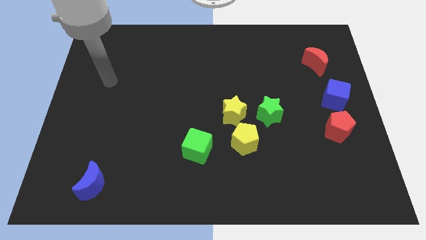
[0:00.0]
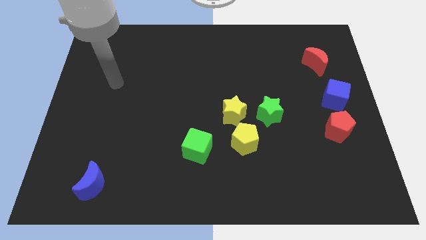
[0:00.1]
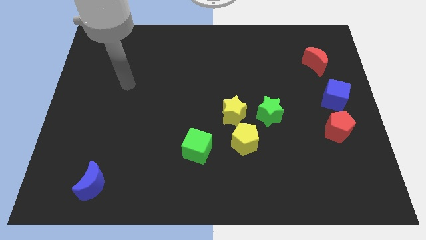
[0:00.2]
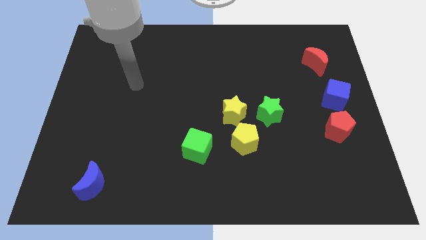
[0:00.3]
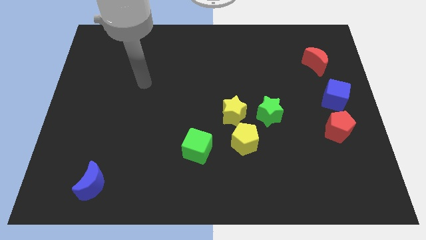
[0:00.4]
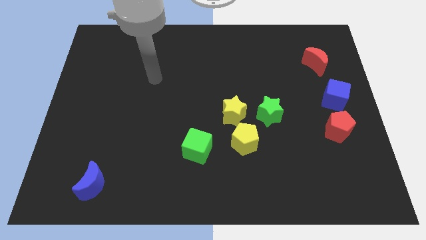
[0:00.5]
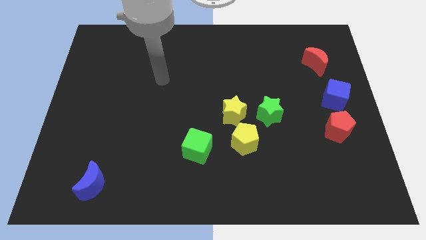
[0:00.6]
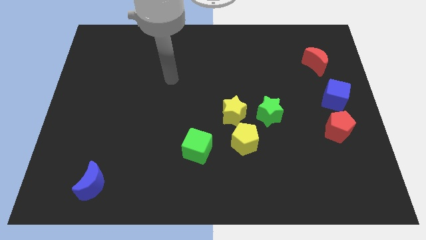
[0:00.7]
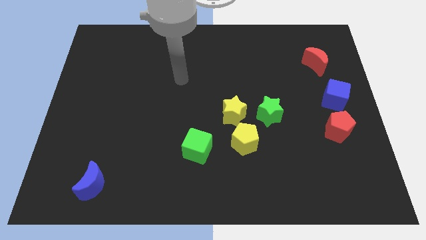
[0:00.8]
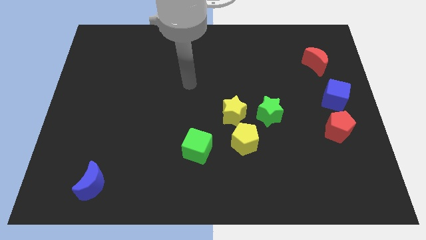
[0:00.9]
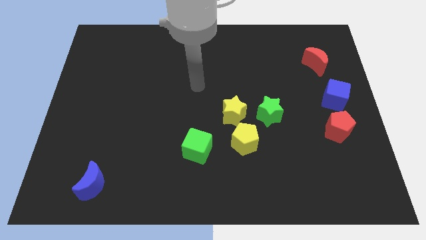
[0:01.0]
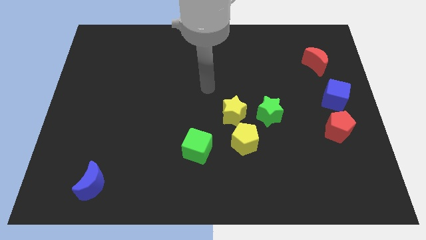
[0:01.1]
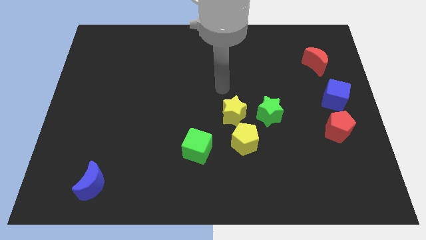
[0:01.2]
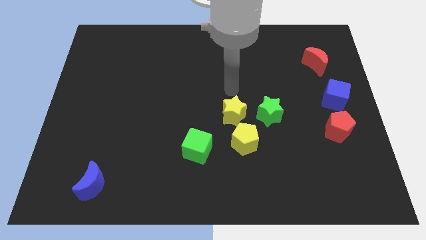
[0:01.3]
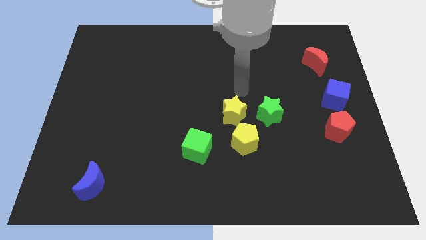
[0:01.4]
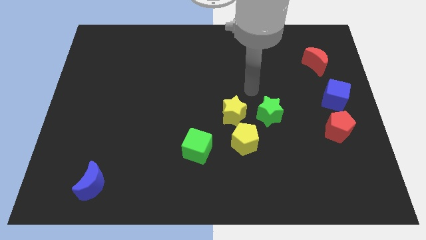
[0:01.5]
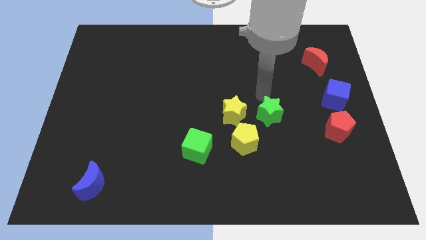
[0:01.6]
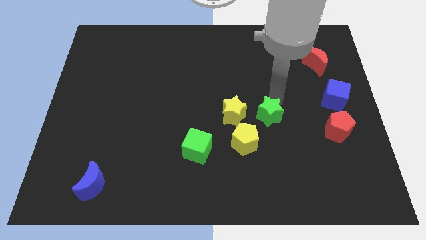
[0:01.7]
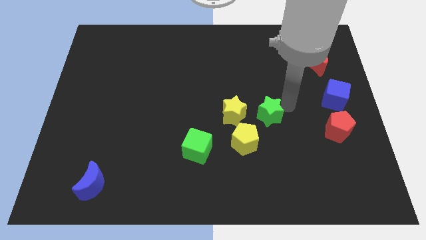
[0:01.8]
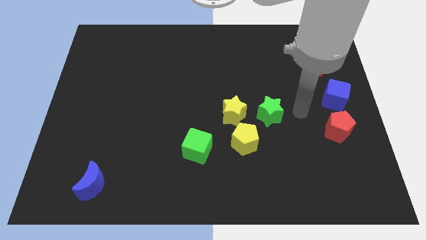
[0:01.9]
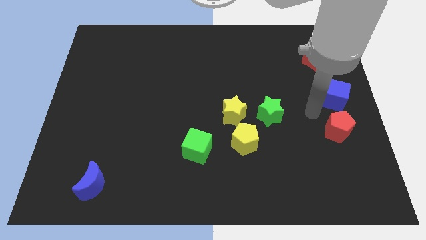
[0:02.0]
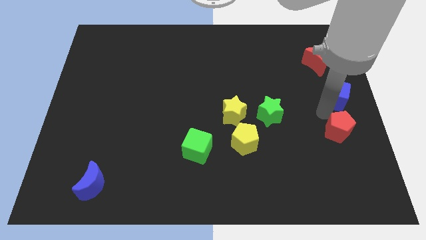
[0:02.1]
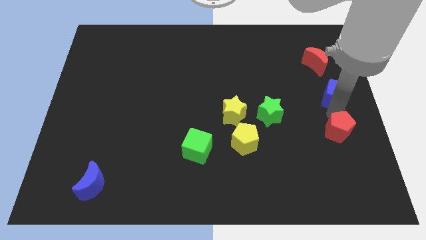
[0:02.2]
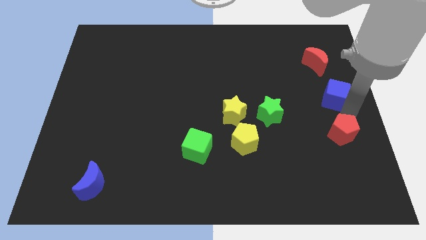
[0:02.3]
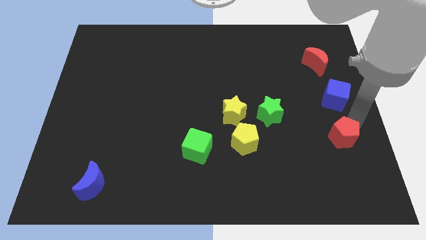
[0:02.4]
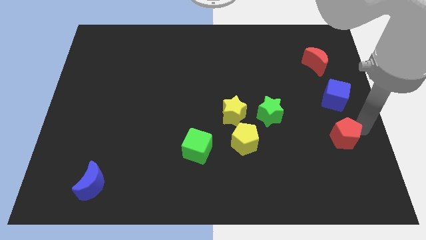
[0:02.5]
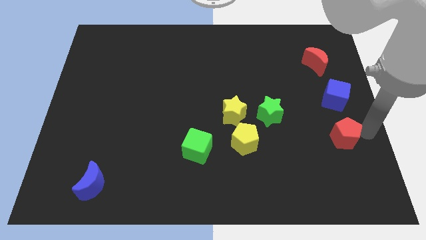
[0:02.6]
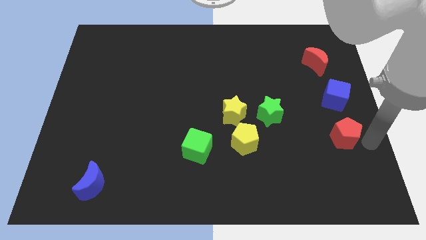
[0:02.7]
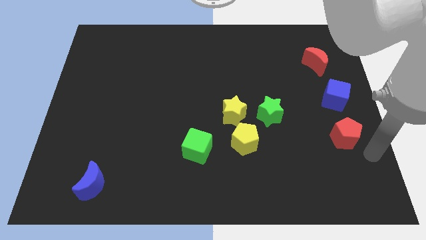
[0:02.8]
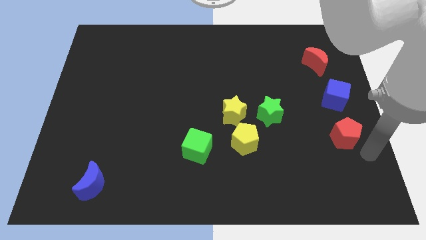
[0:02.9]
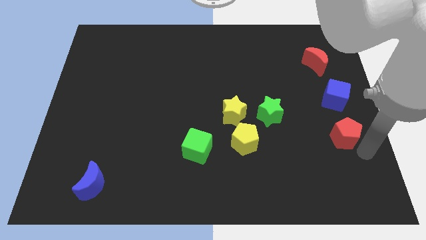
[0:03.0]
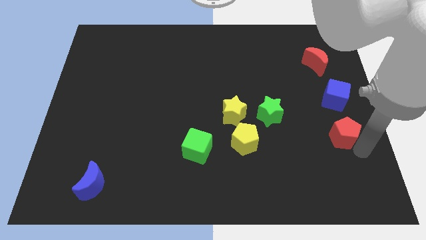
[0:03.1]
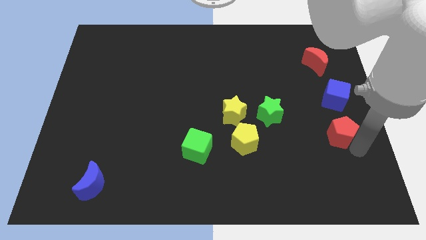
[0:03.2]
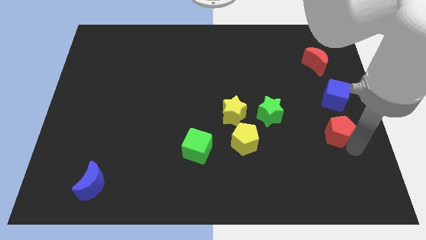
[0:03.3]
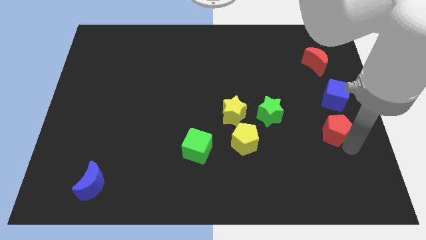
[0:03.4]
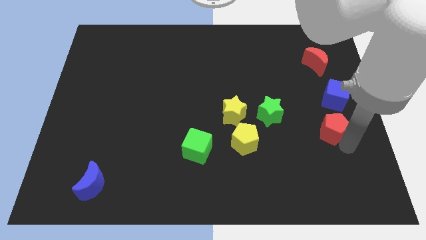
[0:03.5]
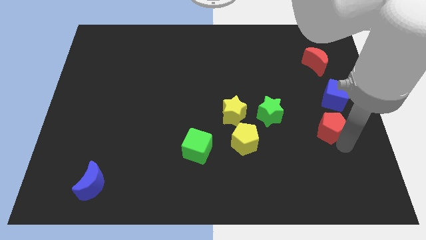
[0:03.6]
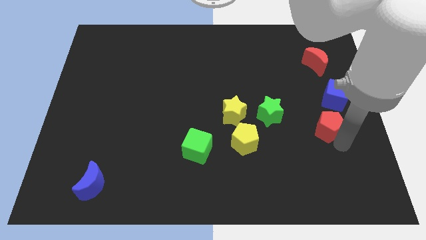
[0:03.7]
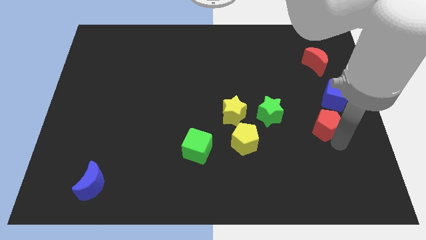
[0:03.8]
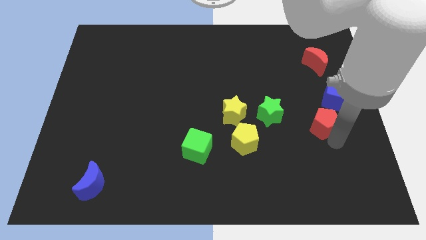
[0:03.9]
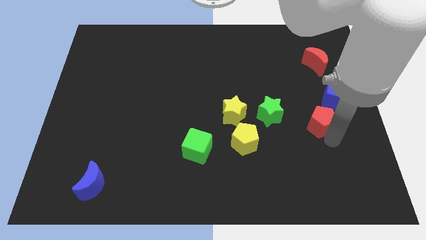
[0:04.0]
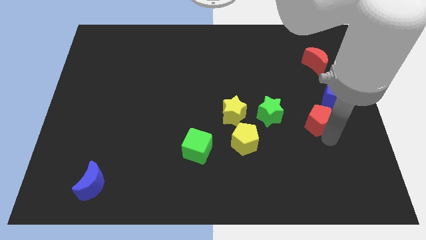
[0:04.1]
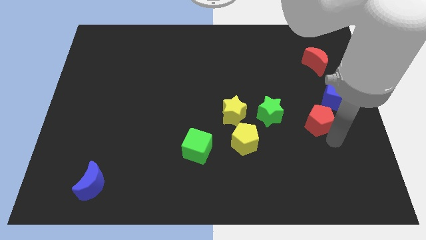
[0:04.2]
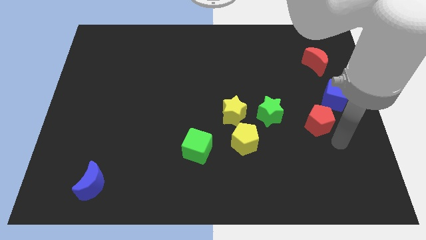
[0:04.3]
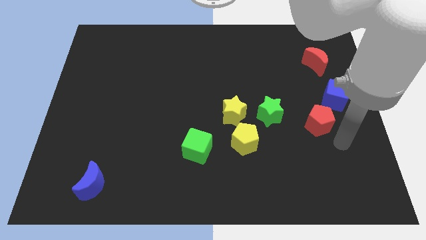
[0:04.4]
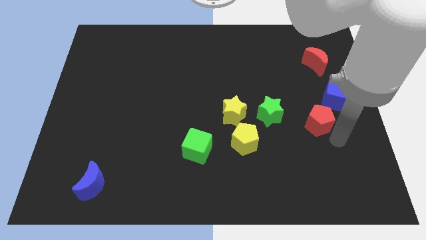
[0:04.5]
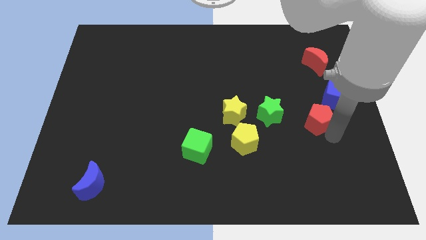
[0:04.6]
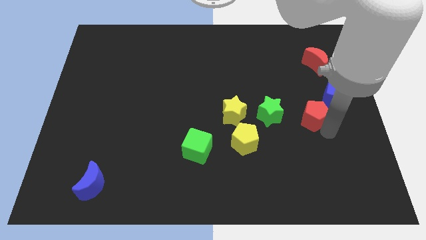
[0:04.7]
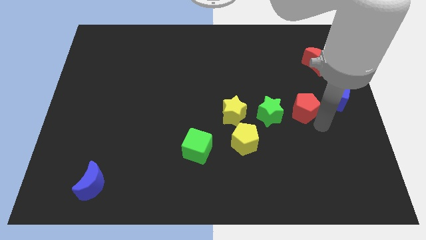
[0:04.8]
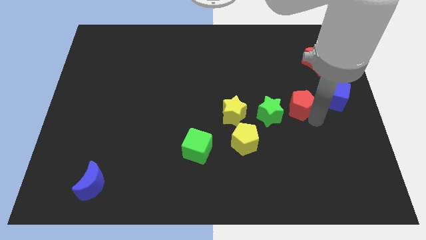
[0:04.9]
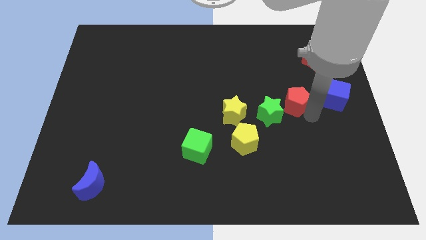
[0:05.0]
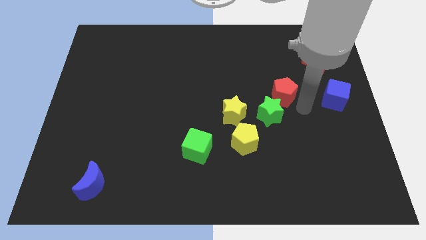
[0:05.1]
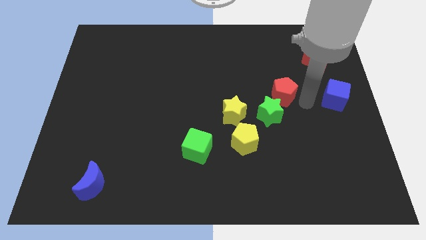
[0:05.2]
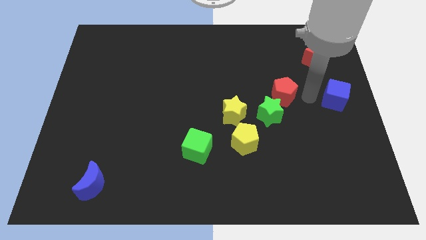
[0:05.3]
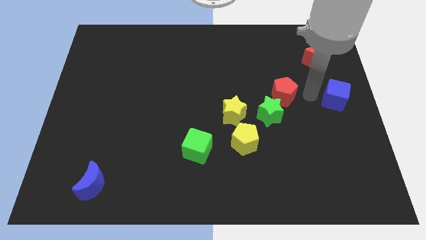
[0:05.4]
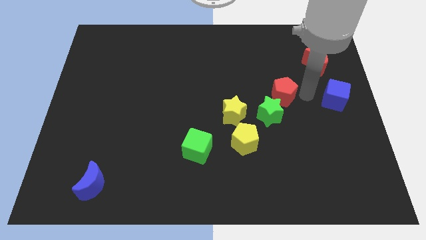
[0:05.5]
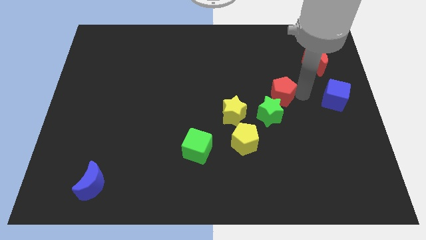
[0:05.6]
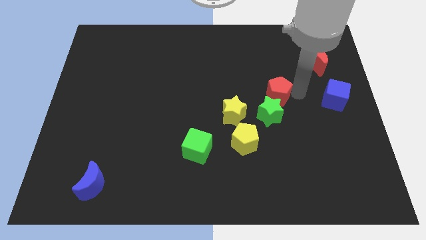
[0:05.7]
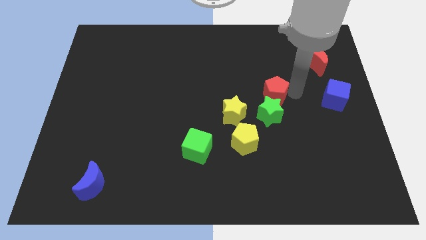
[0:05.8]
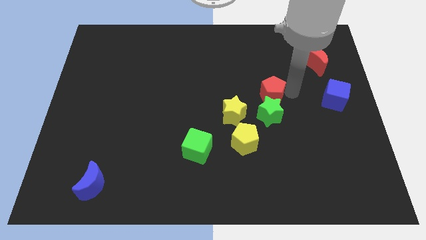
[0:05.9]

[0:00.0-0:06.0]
push the red pentagon to the top left of the green star

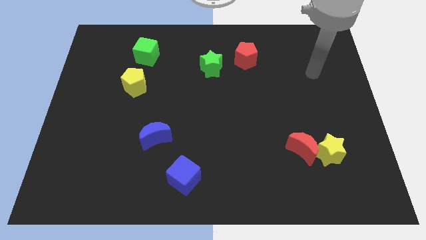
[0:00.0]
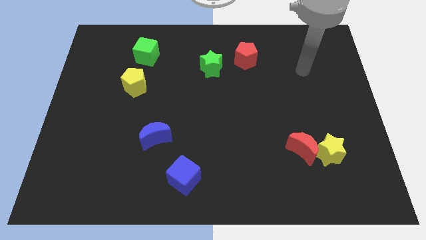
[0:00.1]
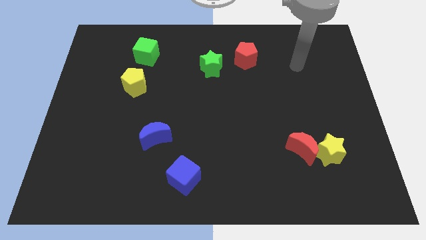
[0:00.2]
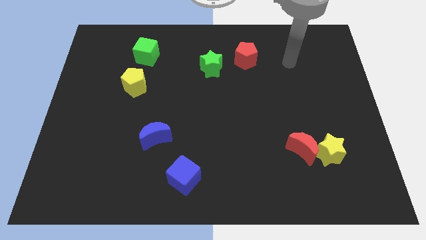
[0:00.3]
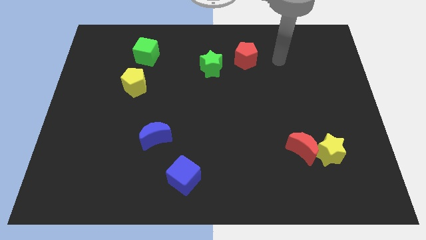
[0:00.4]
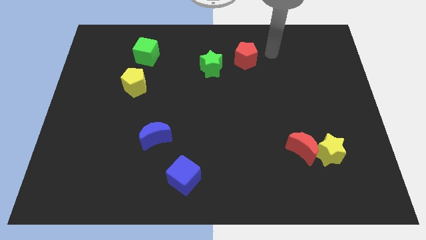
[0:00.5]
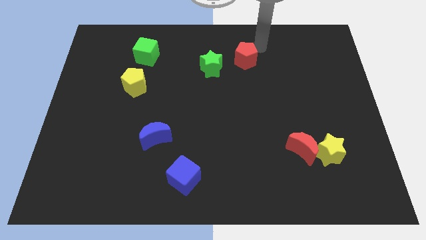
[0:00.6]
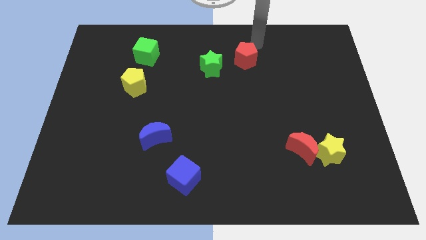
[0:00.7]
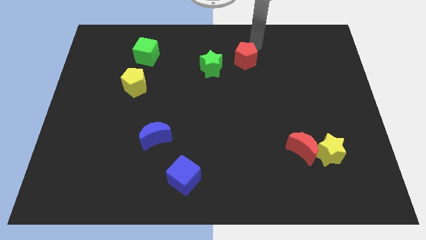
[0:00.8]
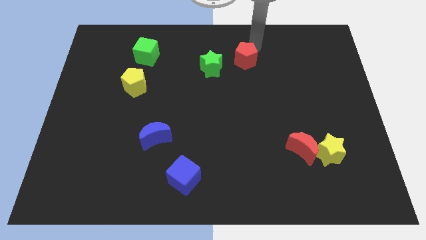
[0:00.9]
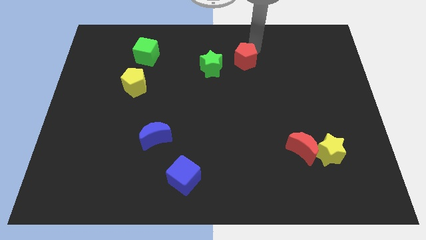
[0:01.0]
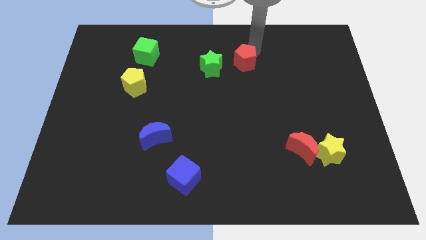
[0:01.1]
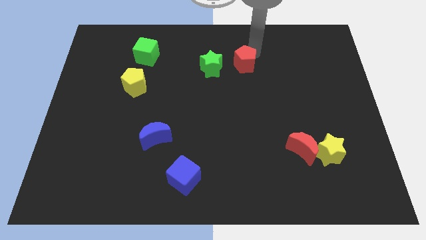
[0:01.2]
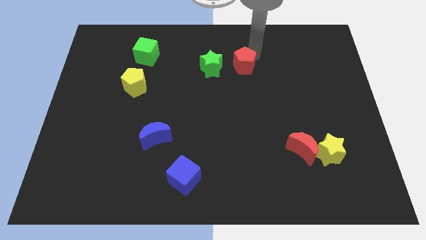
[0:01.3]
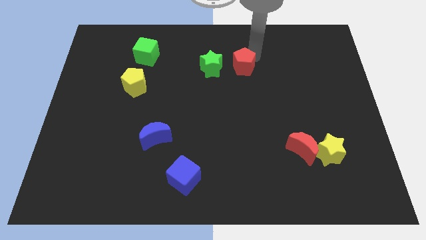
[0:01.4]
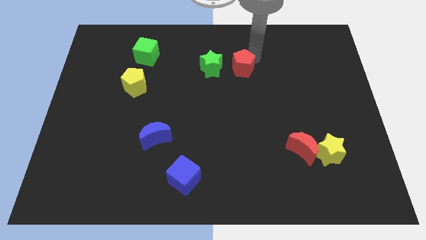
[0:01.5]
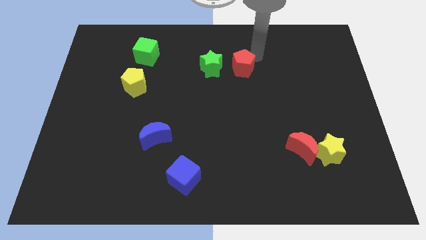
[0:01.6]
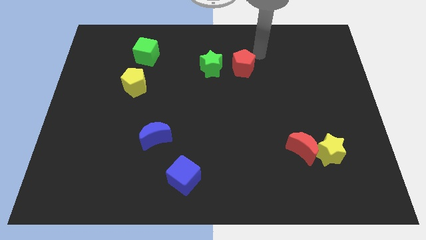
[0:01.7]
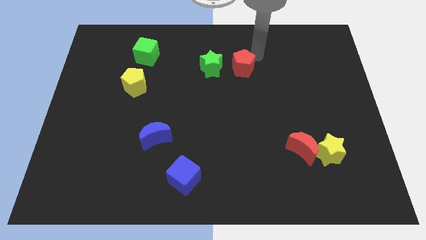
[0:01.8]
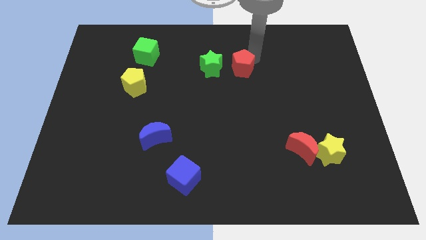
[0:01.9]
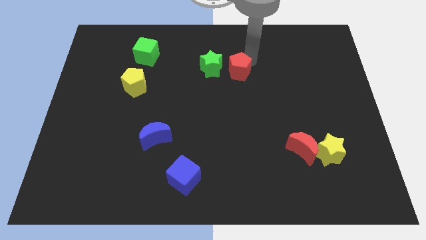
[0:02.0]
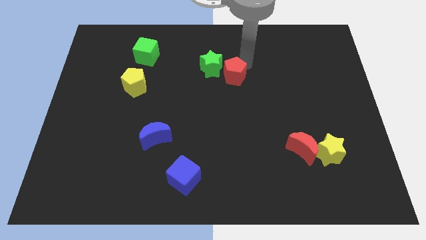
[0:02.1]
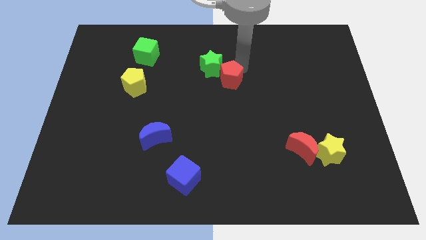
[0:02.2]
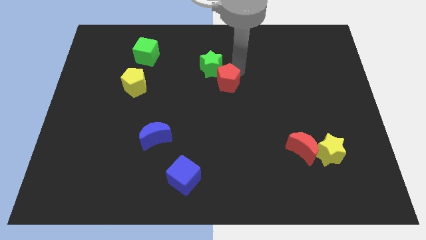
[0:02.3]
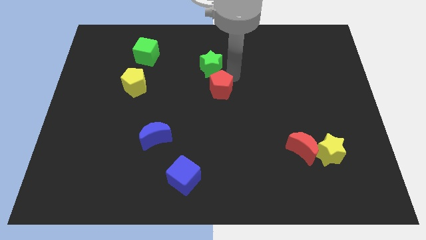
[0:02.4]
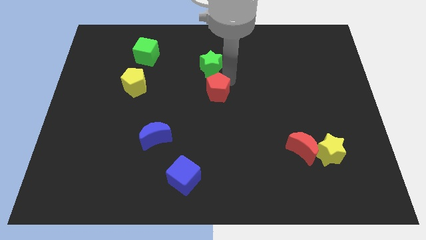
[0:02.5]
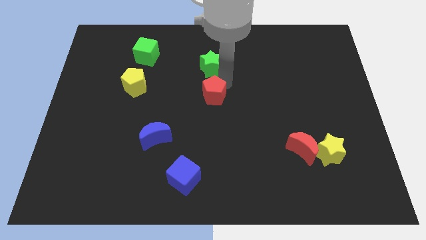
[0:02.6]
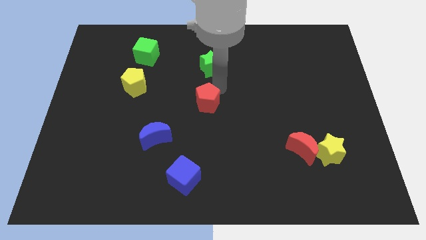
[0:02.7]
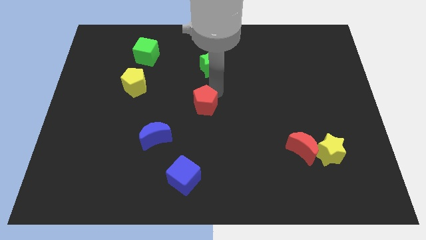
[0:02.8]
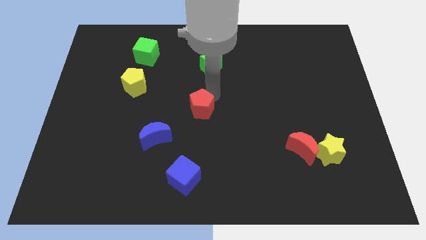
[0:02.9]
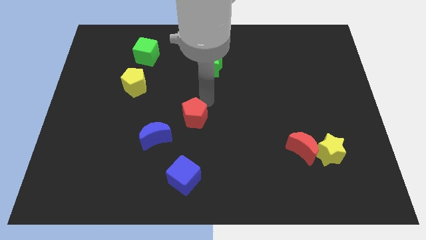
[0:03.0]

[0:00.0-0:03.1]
move the red pentagon to the top of the blue cube
